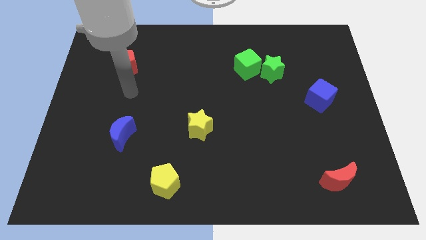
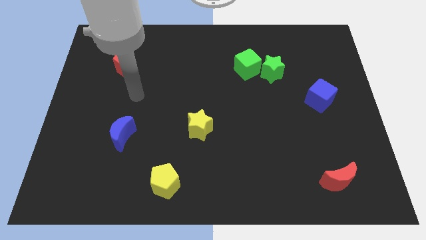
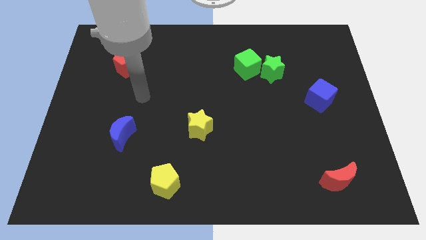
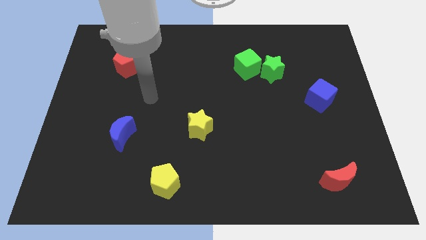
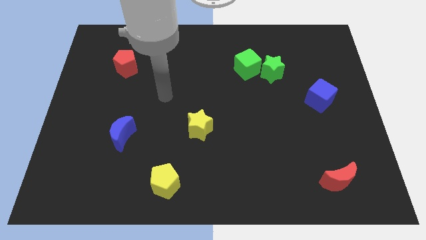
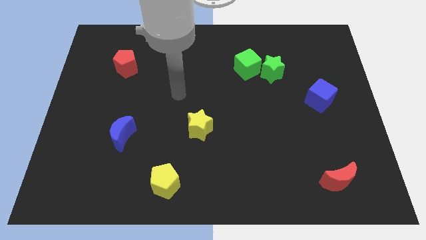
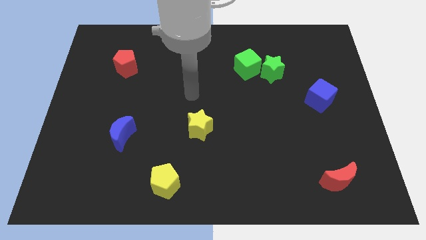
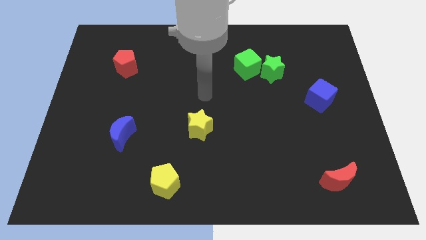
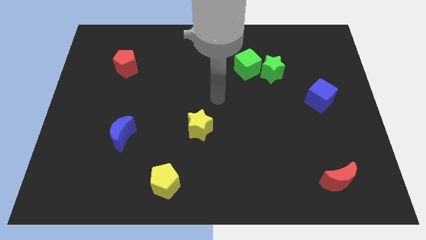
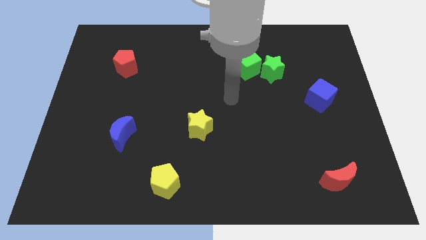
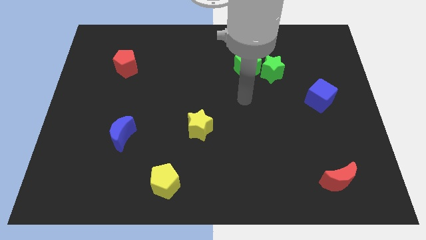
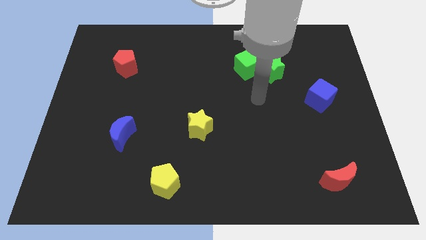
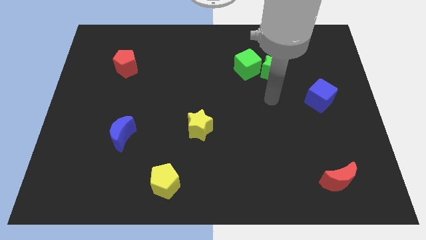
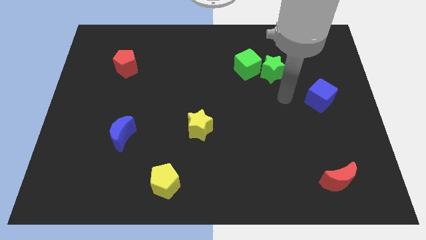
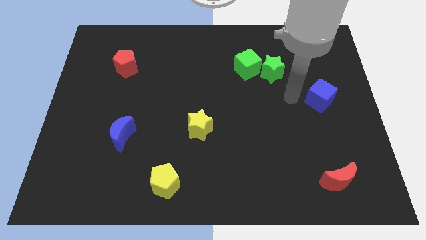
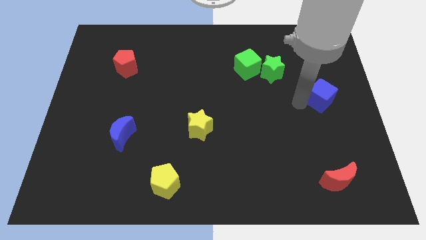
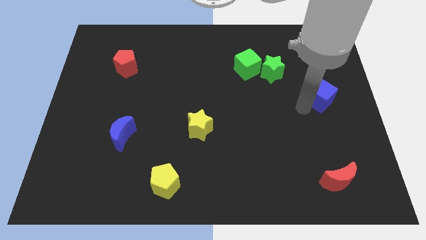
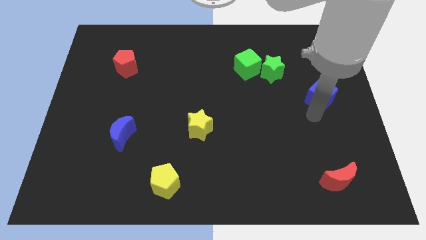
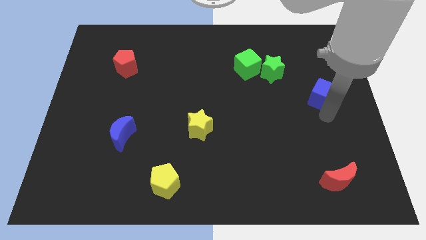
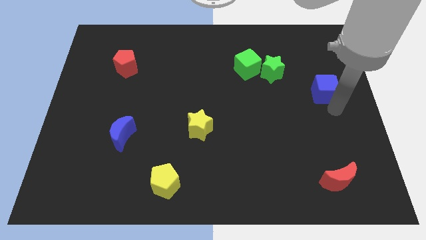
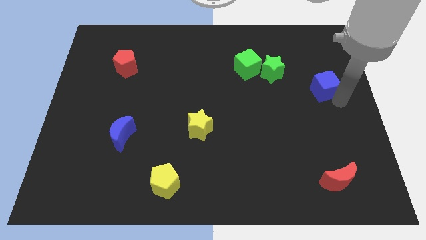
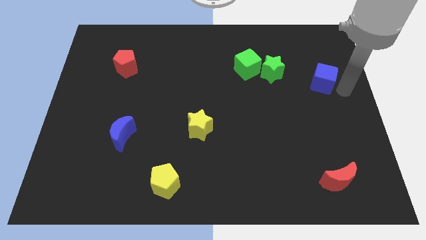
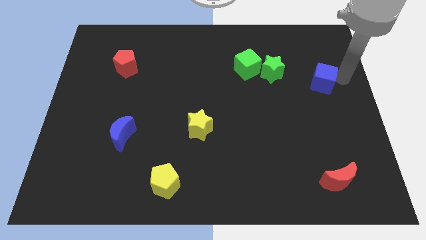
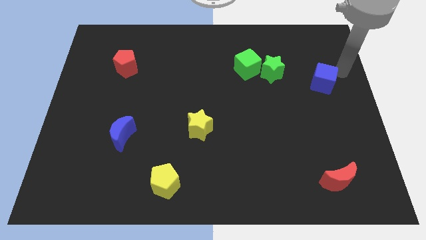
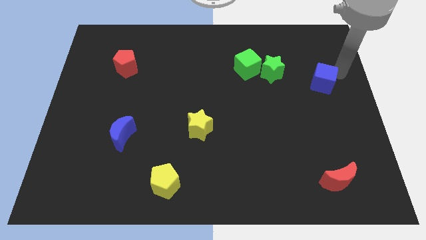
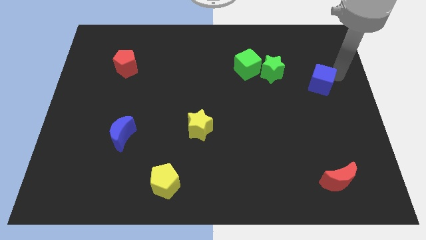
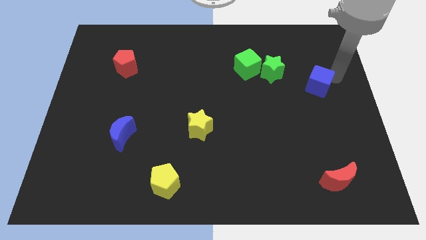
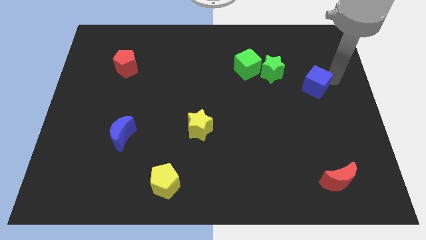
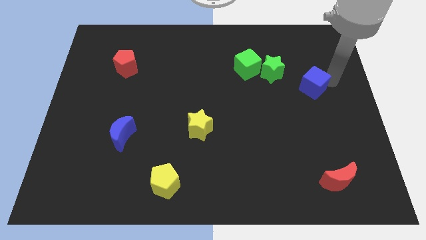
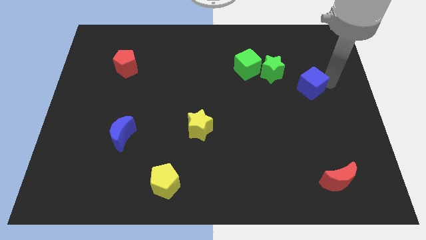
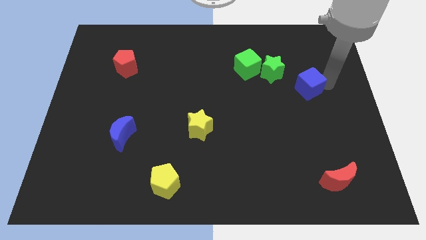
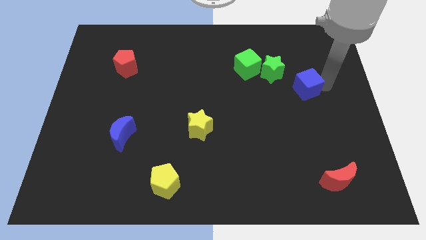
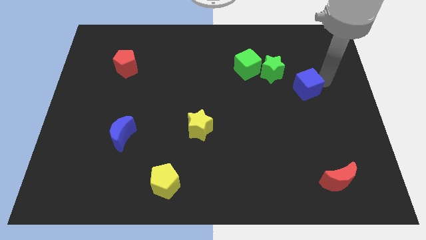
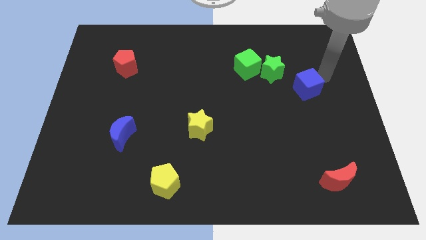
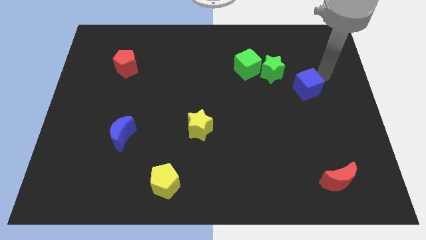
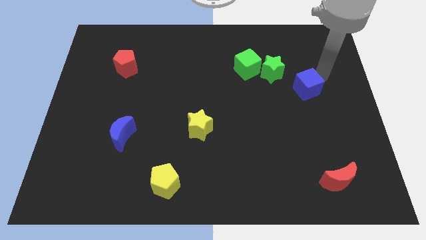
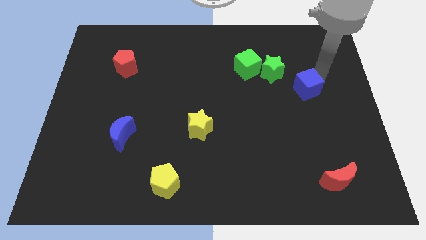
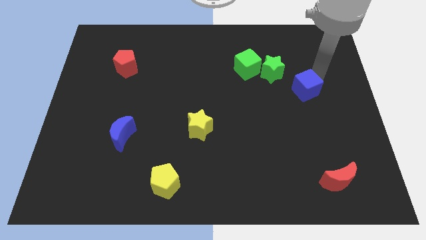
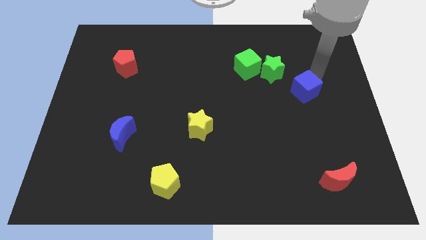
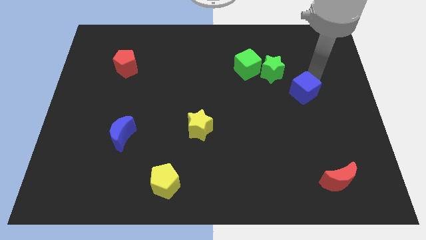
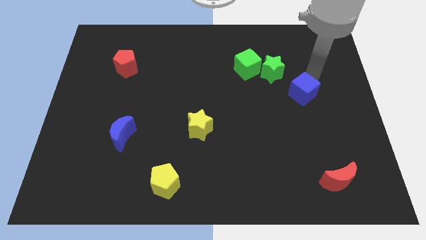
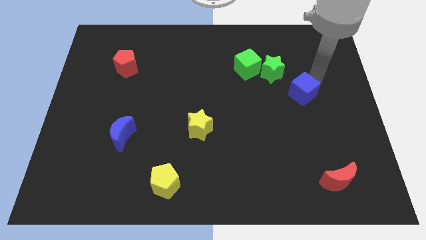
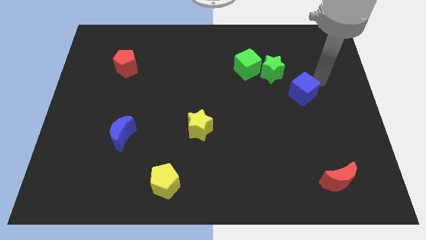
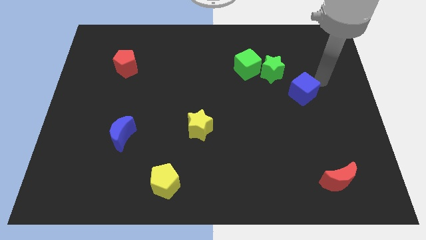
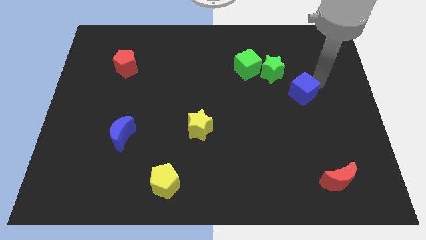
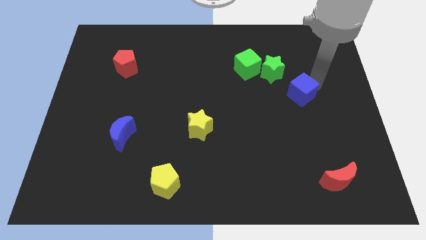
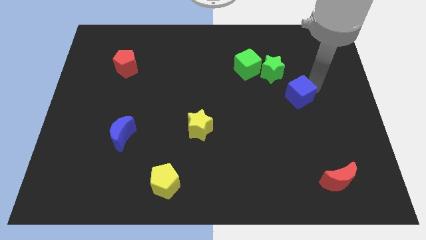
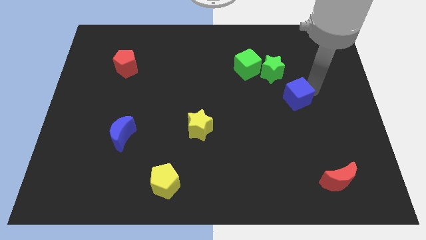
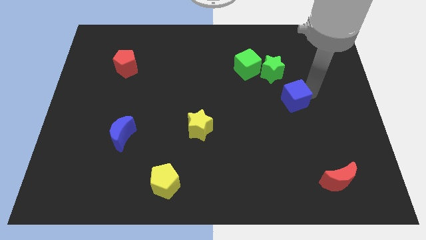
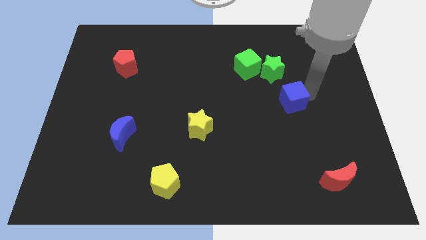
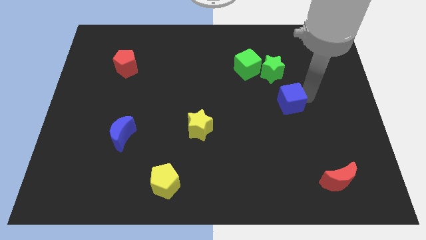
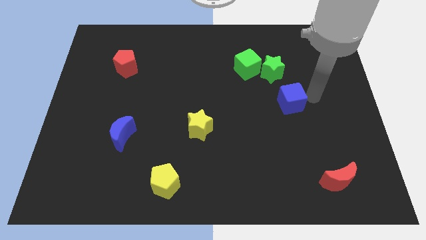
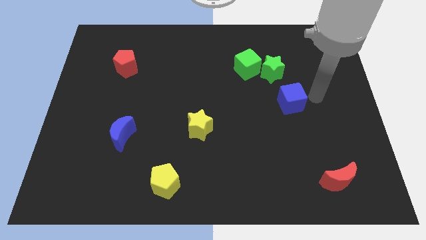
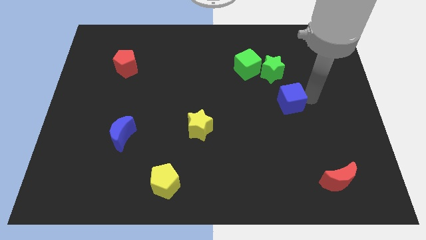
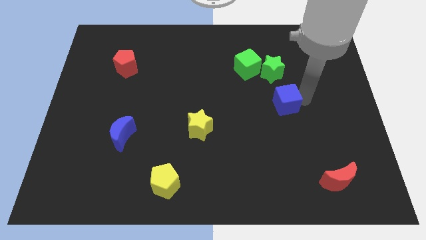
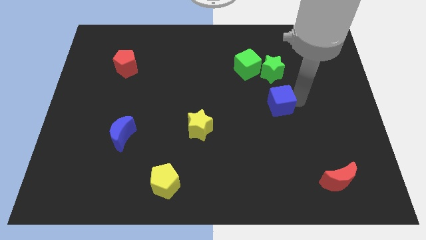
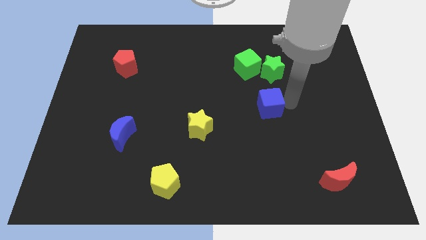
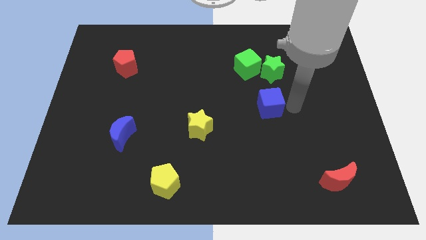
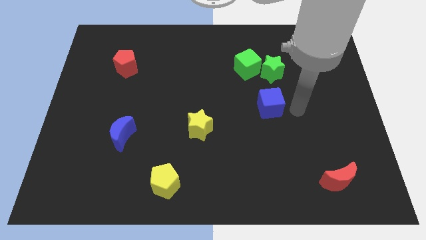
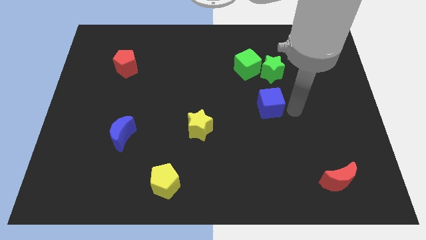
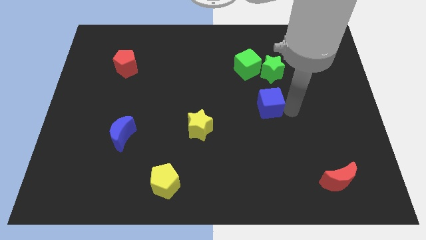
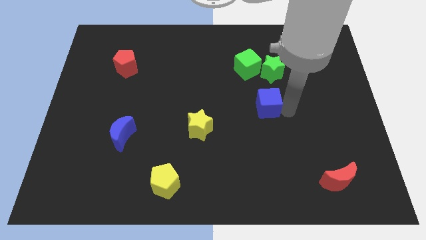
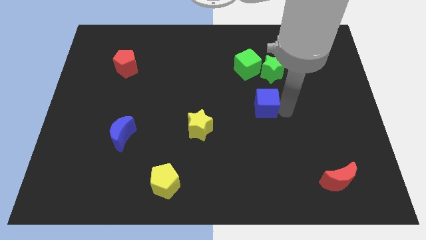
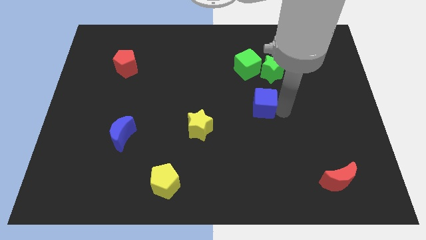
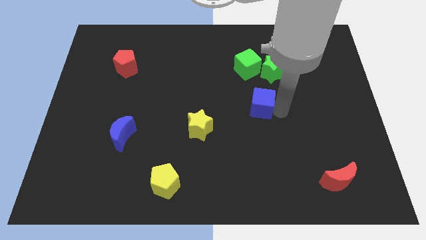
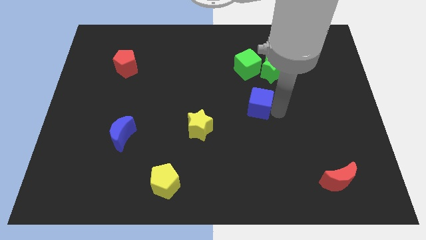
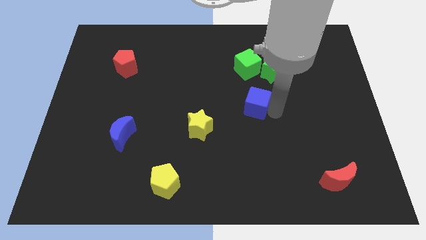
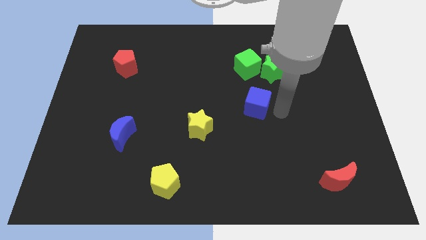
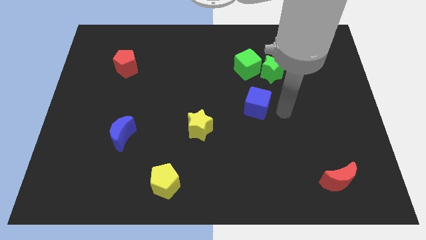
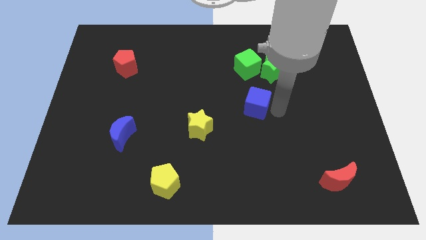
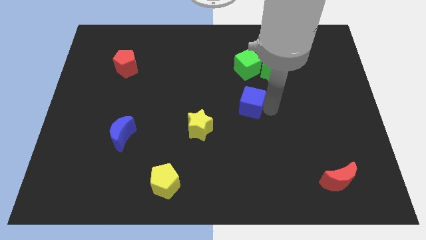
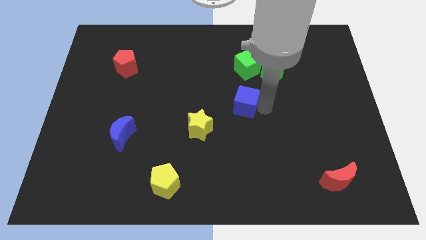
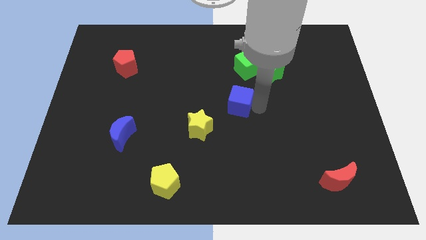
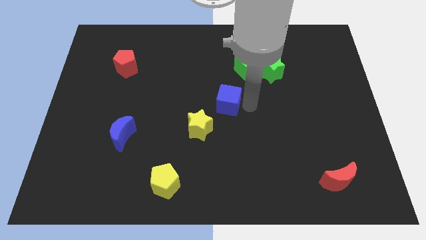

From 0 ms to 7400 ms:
push the blue cube to the left

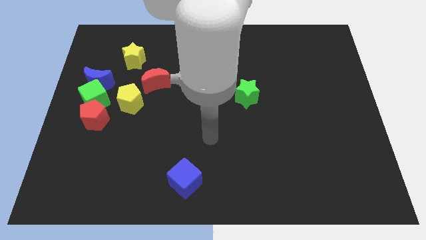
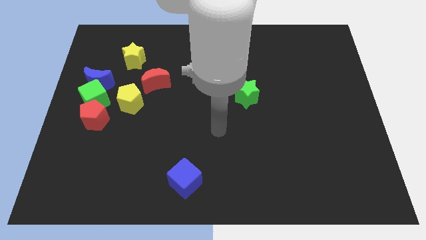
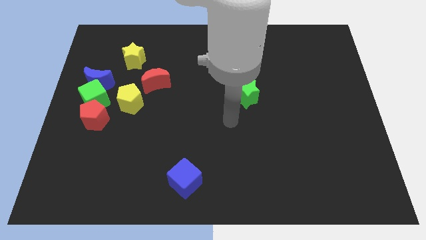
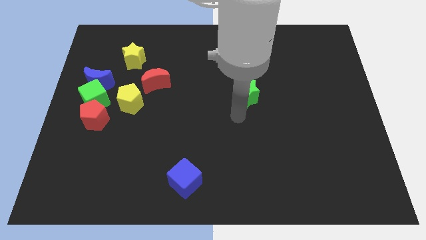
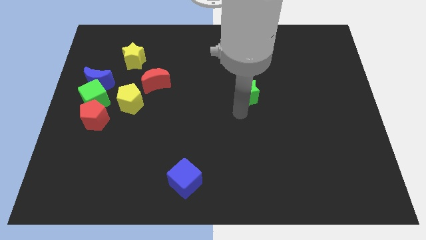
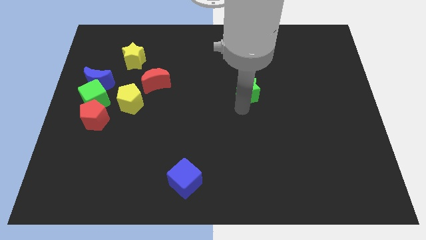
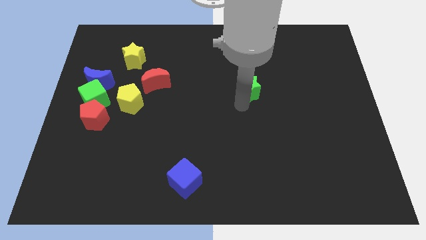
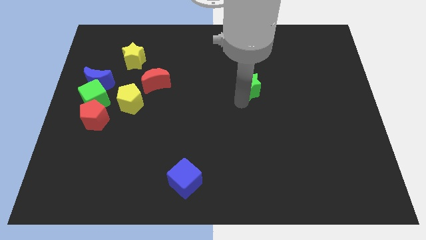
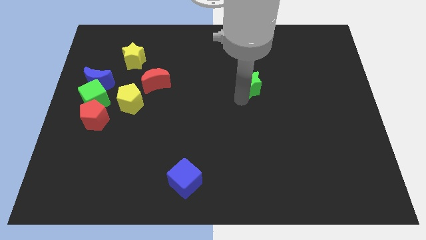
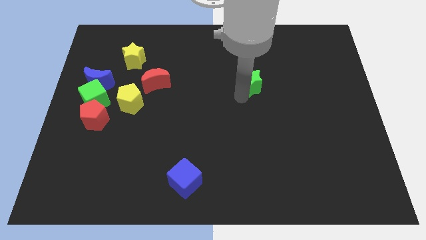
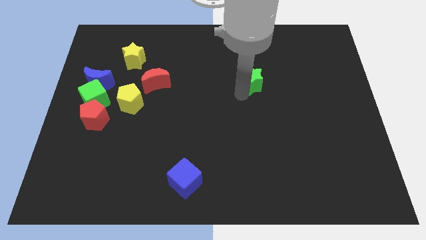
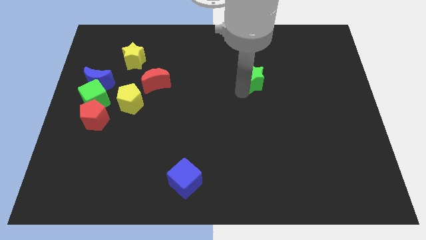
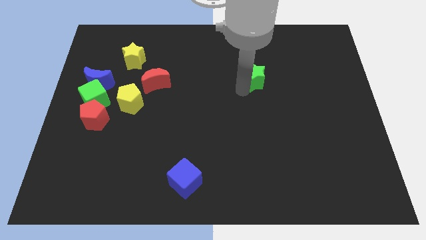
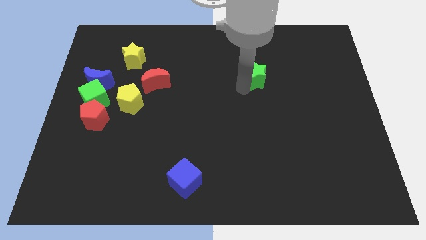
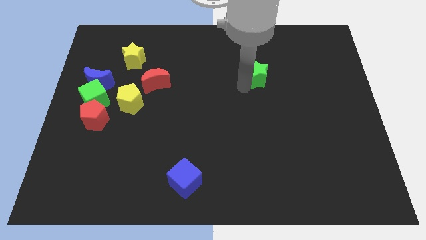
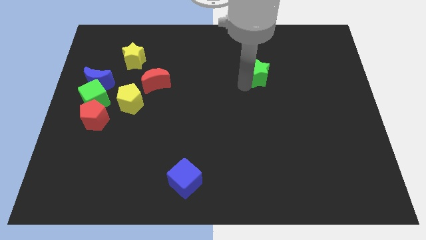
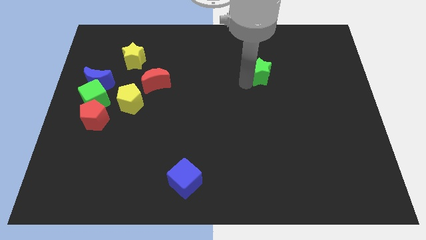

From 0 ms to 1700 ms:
push the green star up and to the right somewhat
